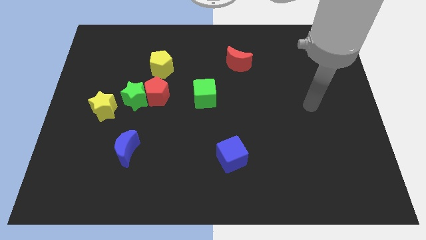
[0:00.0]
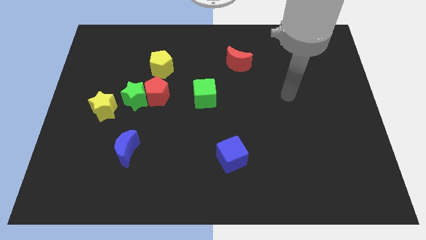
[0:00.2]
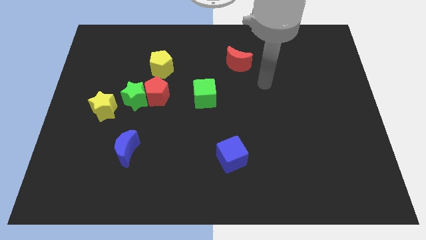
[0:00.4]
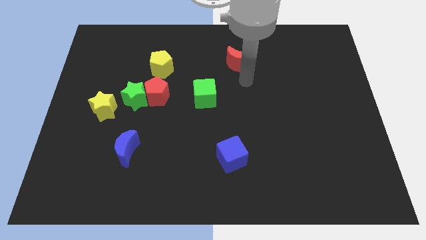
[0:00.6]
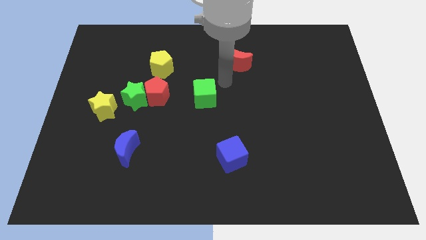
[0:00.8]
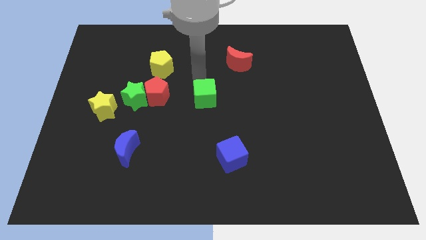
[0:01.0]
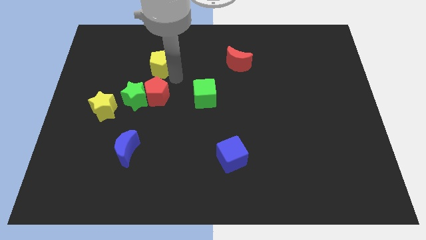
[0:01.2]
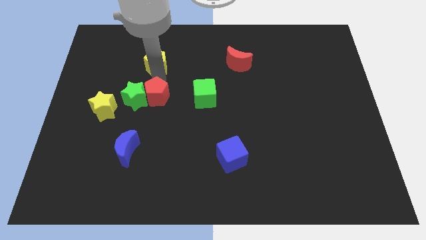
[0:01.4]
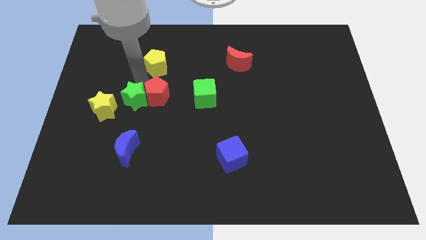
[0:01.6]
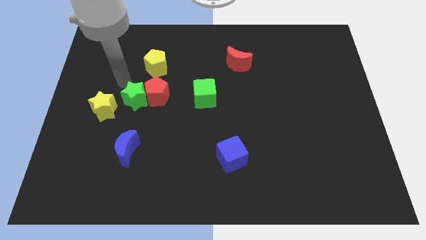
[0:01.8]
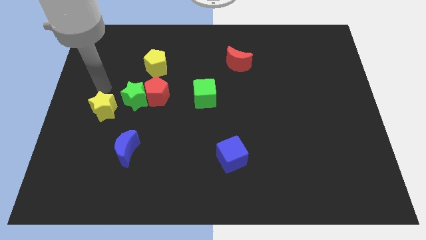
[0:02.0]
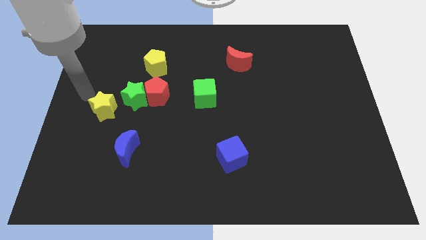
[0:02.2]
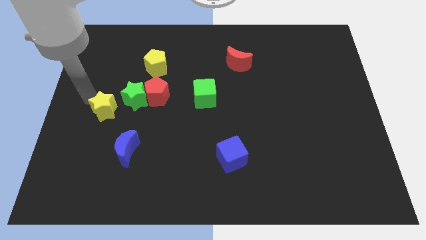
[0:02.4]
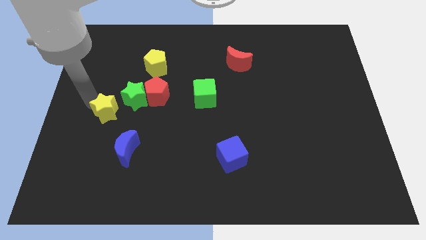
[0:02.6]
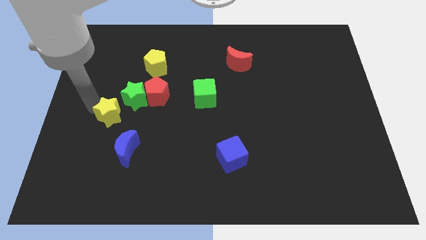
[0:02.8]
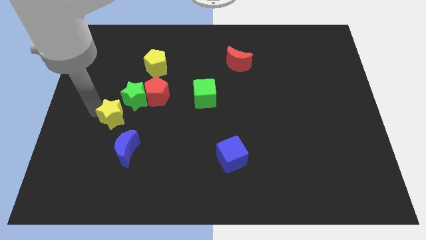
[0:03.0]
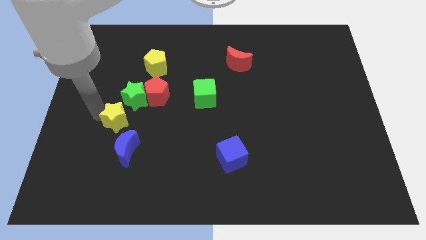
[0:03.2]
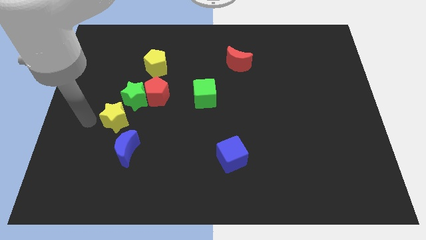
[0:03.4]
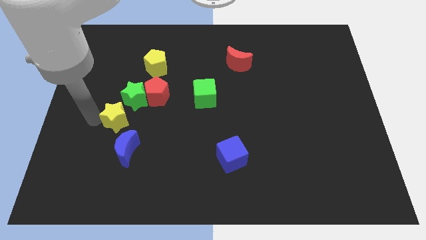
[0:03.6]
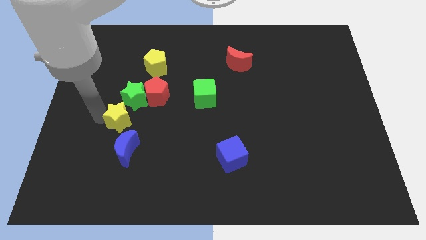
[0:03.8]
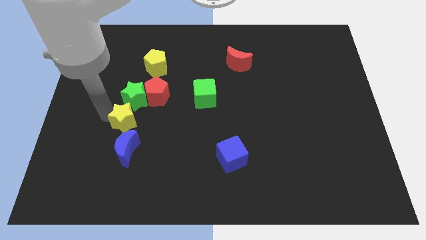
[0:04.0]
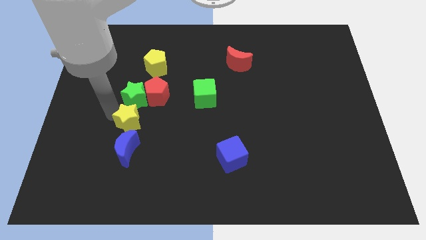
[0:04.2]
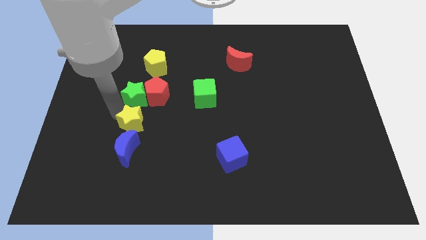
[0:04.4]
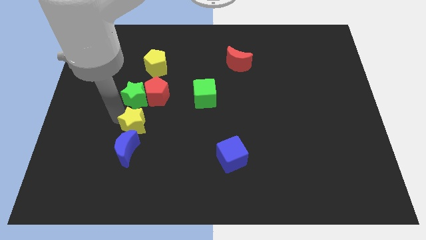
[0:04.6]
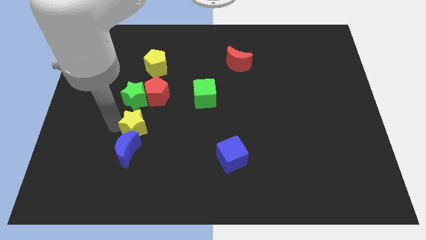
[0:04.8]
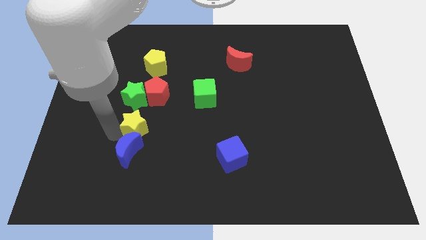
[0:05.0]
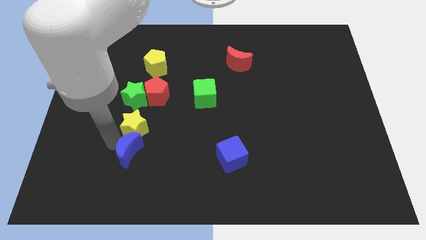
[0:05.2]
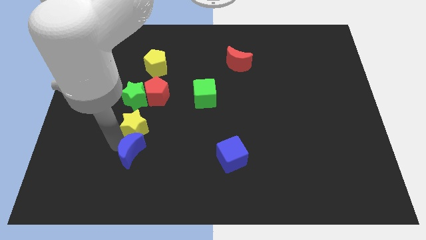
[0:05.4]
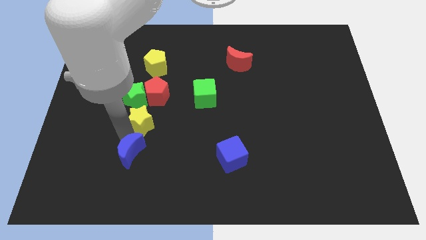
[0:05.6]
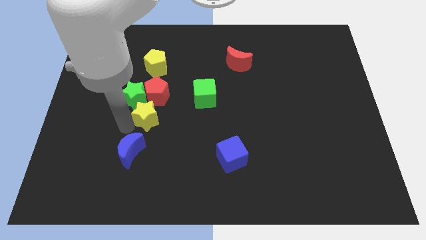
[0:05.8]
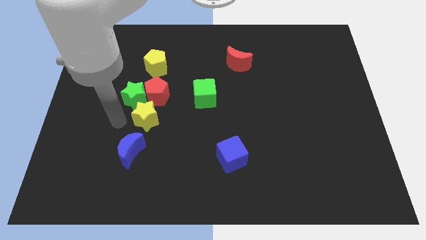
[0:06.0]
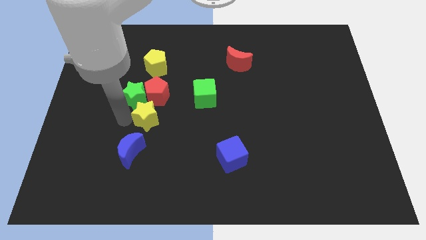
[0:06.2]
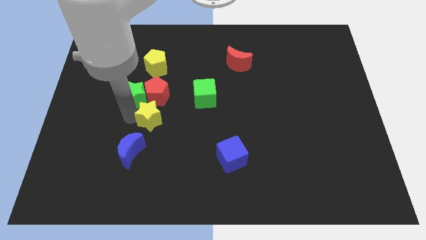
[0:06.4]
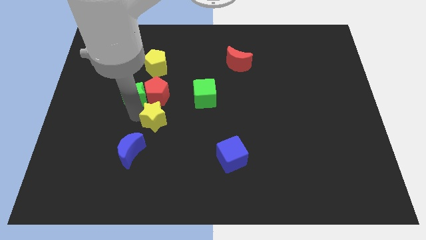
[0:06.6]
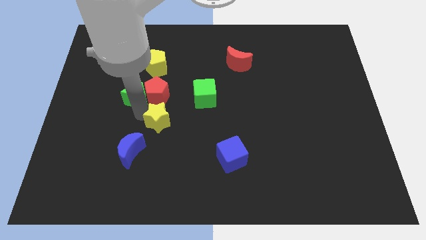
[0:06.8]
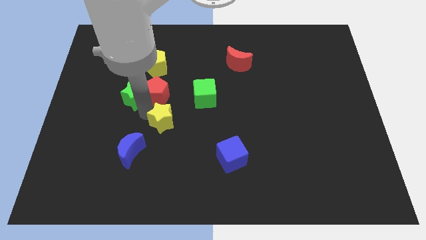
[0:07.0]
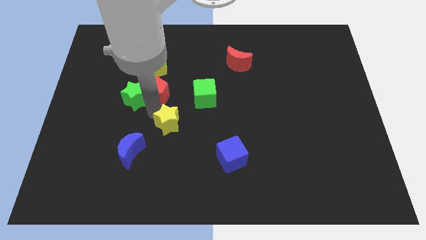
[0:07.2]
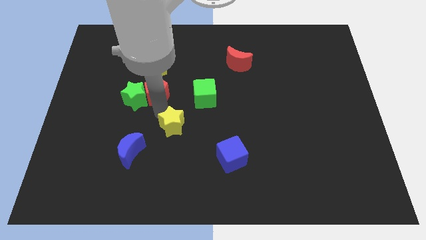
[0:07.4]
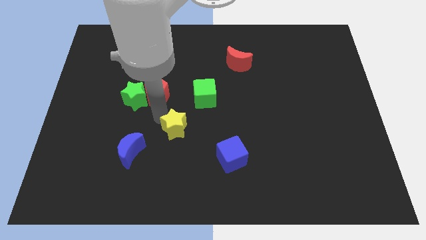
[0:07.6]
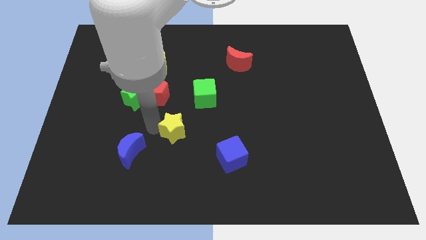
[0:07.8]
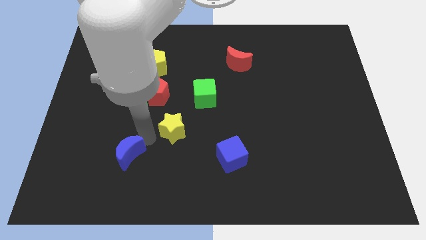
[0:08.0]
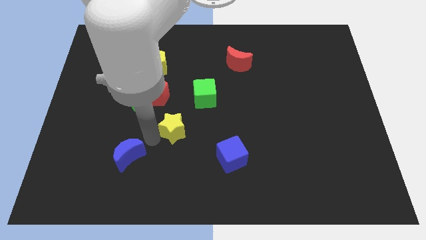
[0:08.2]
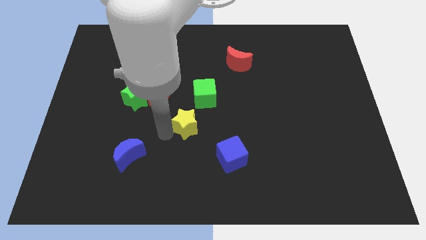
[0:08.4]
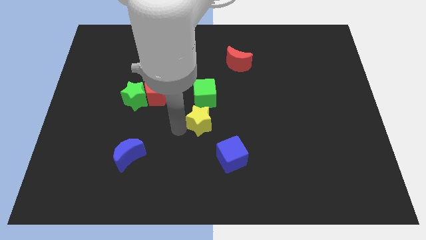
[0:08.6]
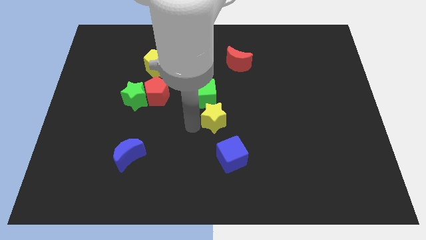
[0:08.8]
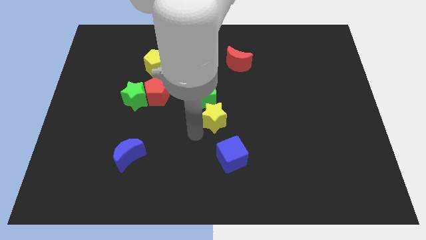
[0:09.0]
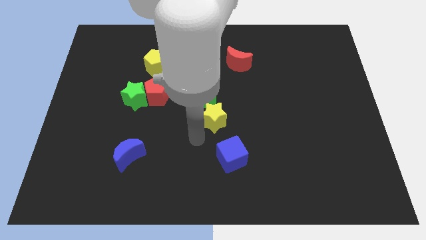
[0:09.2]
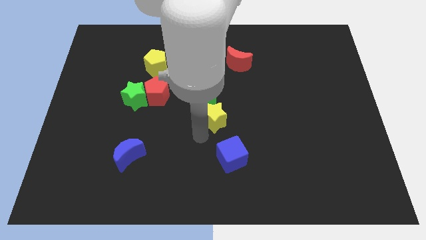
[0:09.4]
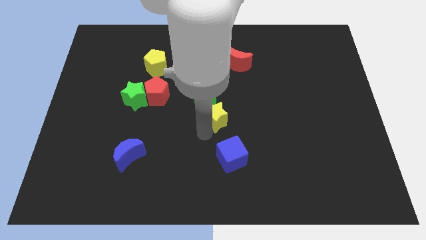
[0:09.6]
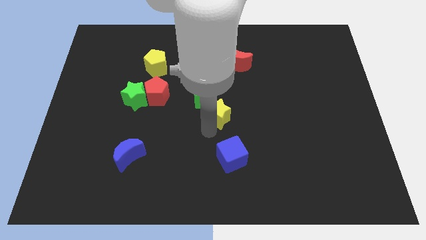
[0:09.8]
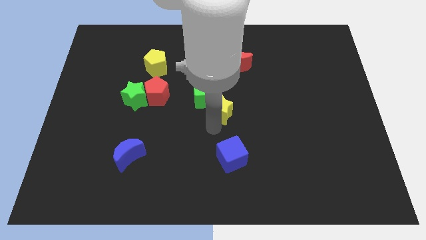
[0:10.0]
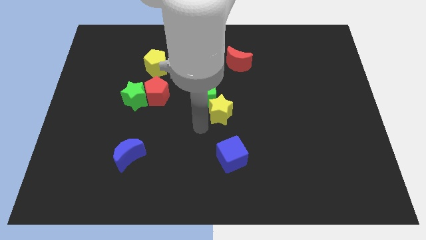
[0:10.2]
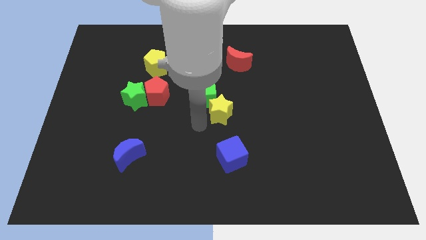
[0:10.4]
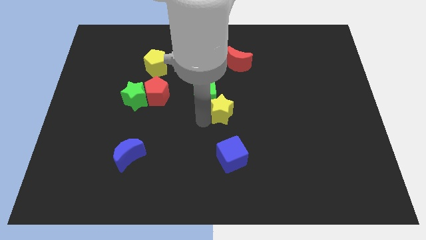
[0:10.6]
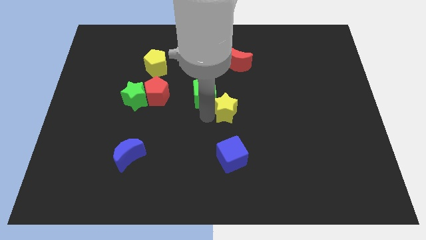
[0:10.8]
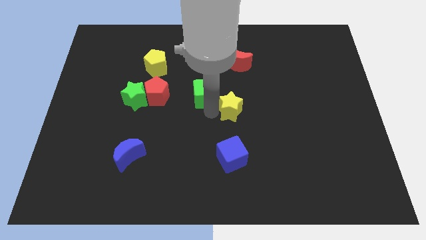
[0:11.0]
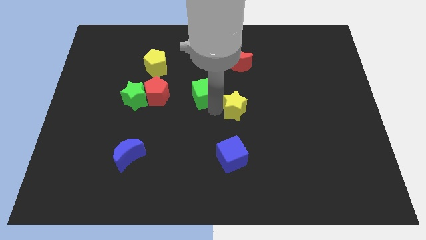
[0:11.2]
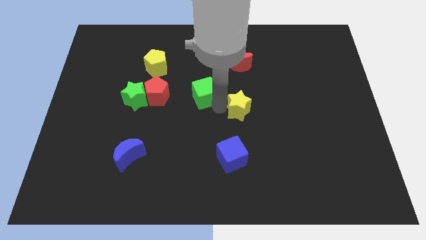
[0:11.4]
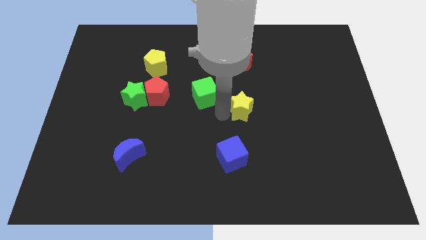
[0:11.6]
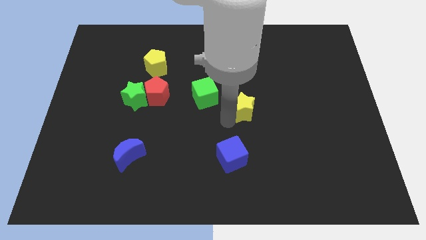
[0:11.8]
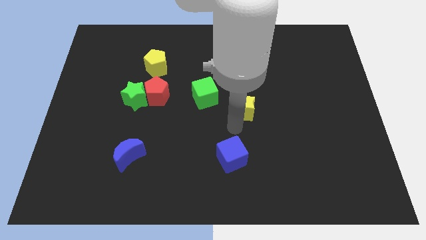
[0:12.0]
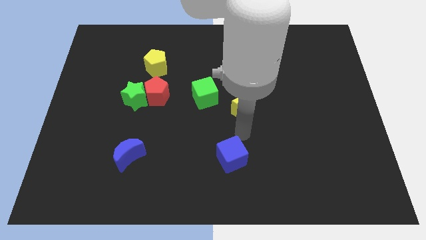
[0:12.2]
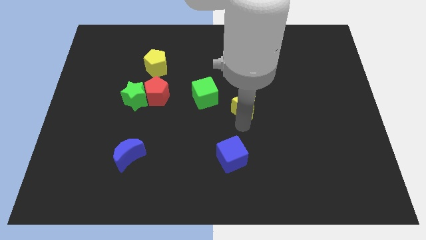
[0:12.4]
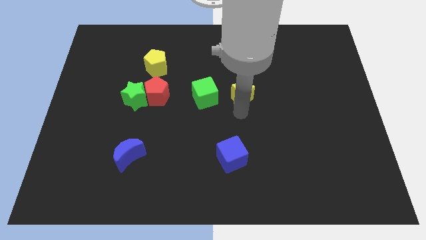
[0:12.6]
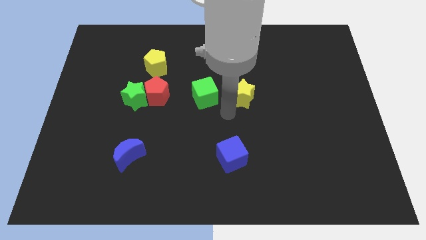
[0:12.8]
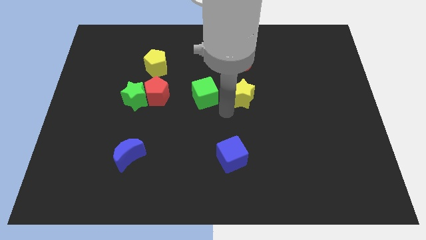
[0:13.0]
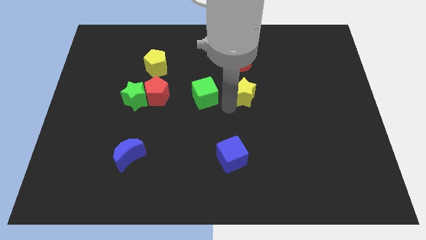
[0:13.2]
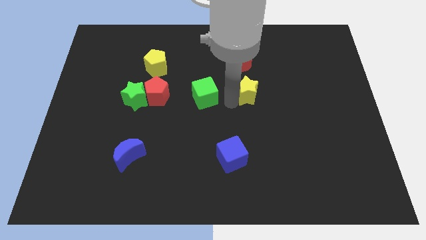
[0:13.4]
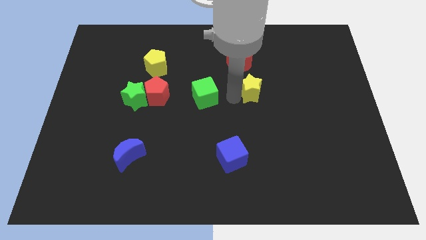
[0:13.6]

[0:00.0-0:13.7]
put the yellow star to the bottom right side of the red moon
